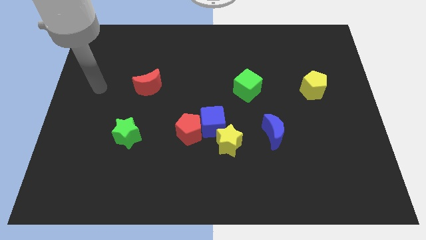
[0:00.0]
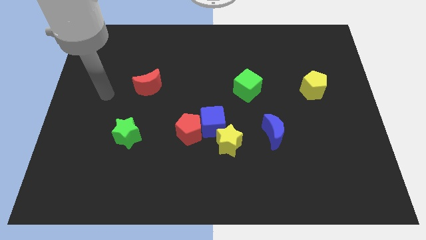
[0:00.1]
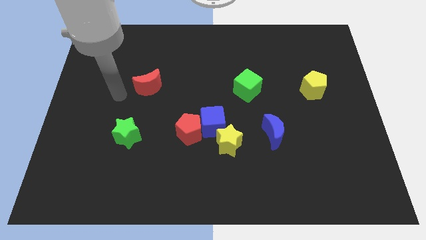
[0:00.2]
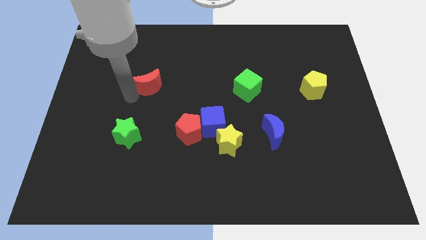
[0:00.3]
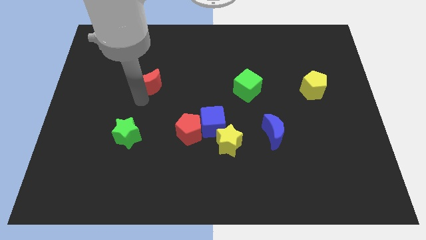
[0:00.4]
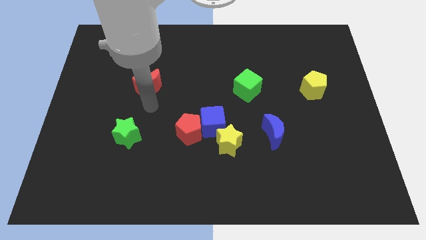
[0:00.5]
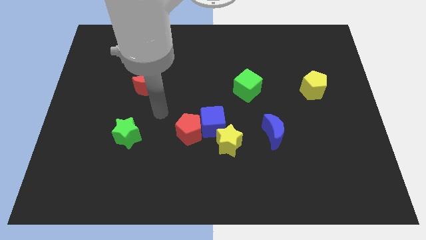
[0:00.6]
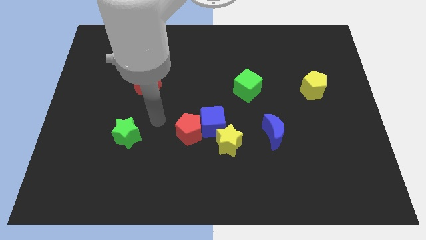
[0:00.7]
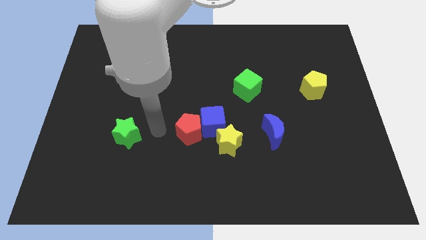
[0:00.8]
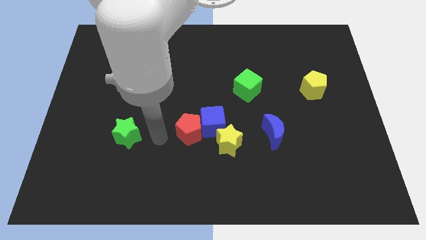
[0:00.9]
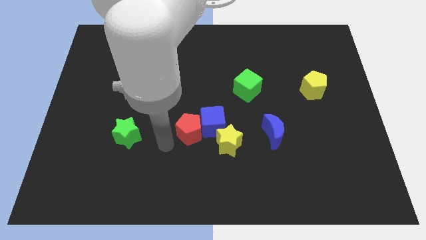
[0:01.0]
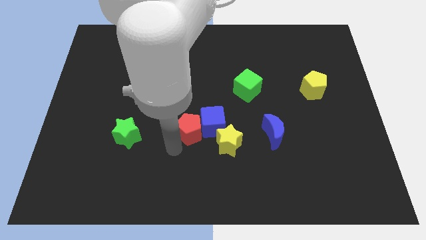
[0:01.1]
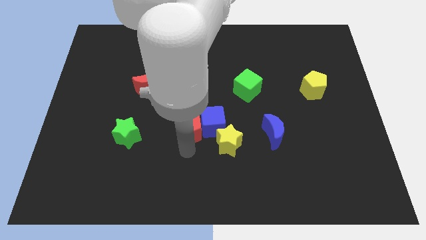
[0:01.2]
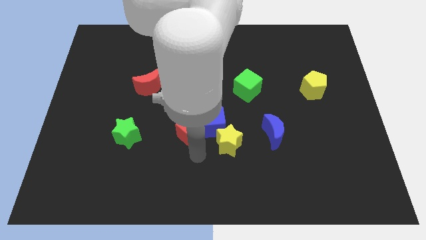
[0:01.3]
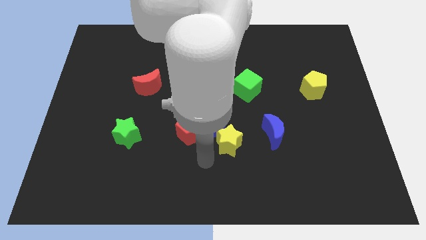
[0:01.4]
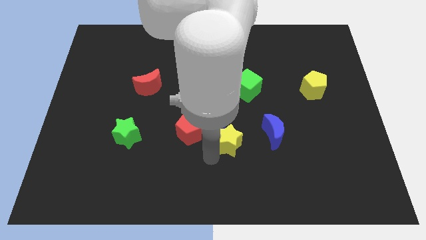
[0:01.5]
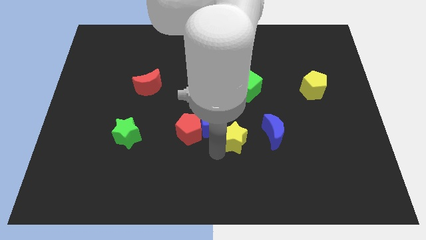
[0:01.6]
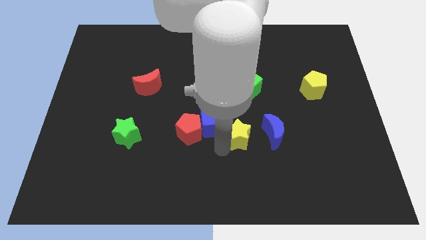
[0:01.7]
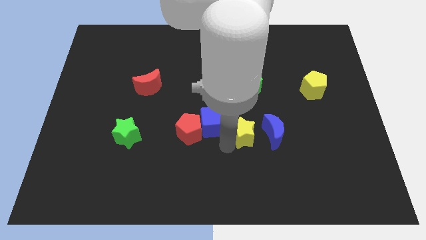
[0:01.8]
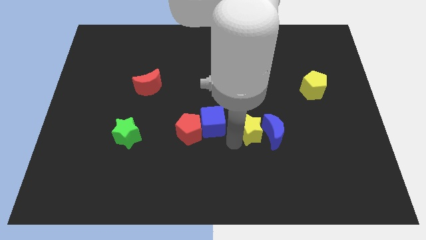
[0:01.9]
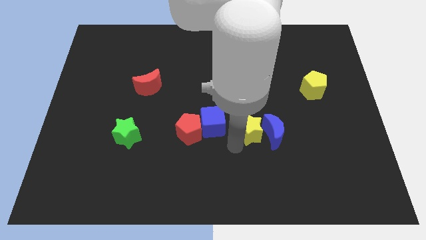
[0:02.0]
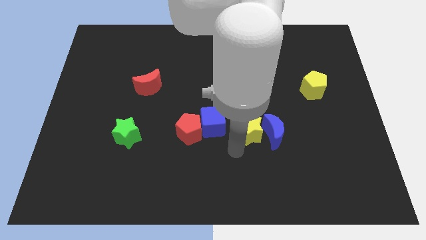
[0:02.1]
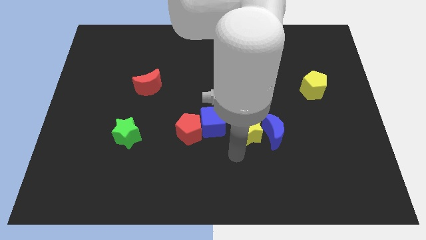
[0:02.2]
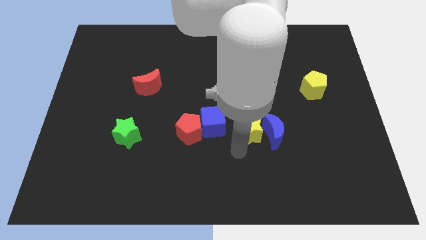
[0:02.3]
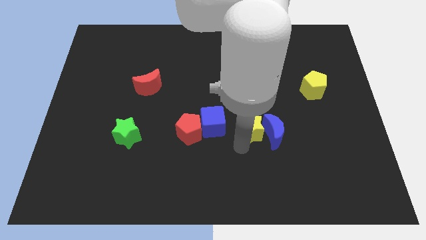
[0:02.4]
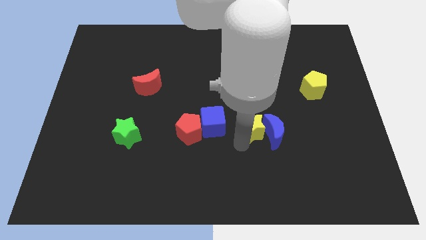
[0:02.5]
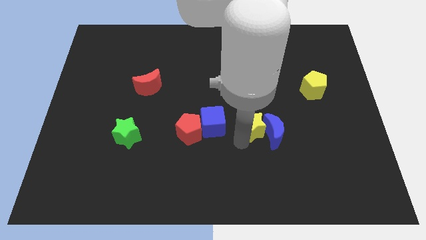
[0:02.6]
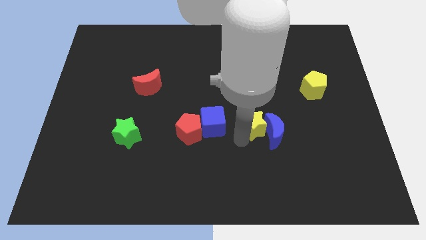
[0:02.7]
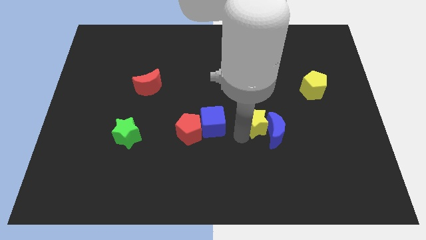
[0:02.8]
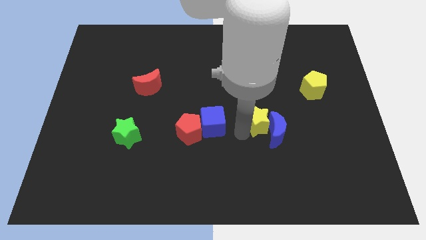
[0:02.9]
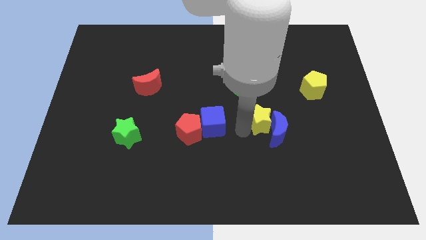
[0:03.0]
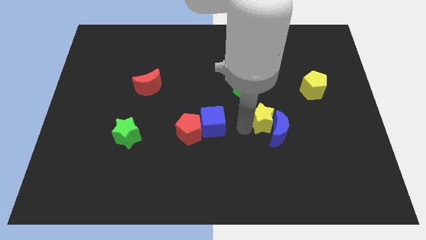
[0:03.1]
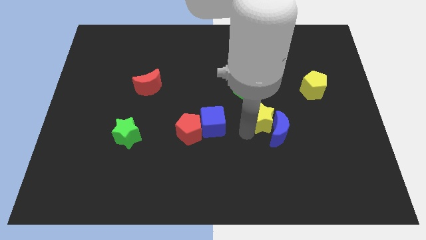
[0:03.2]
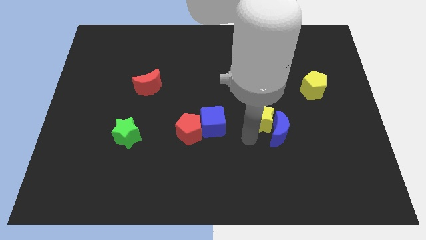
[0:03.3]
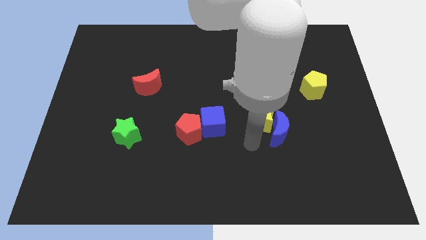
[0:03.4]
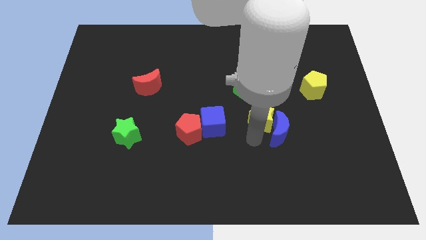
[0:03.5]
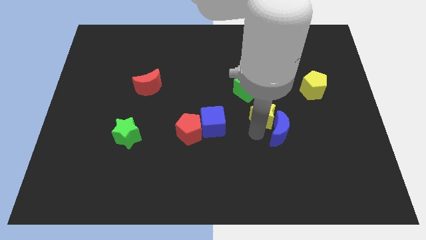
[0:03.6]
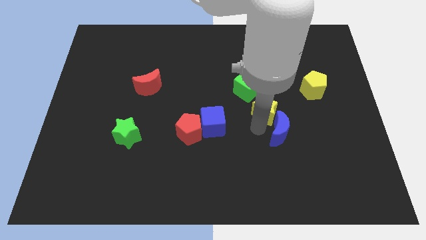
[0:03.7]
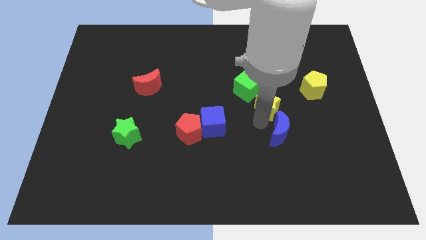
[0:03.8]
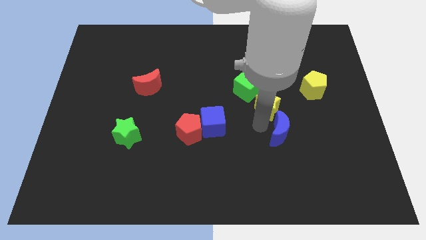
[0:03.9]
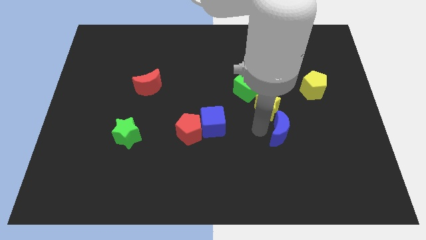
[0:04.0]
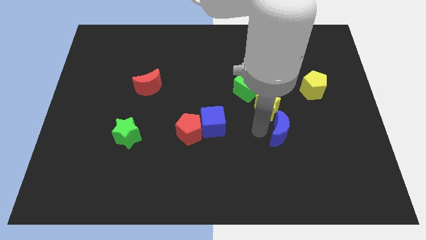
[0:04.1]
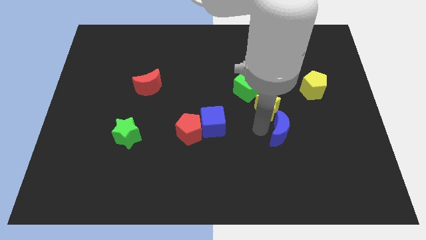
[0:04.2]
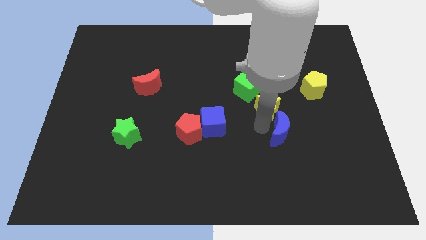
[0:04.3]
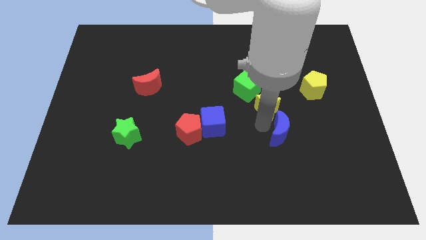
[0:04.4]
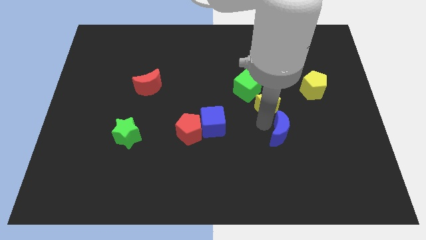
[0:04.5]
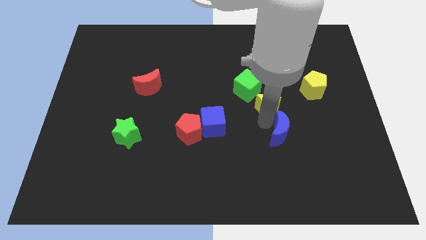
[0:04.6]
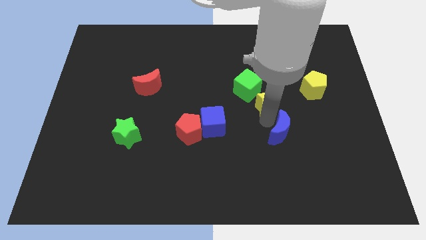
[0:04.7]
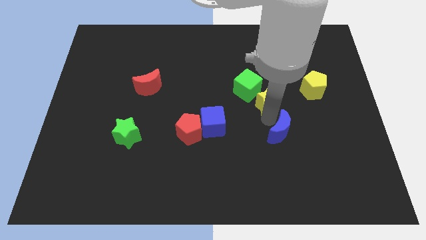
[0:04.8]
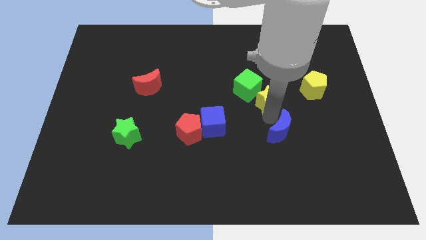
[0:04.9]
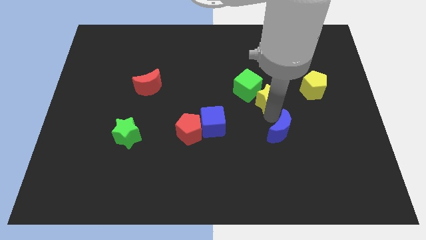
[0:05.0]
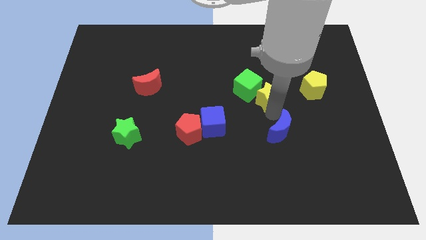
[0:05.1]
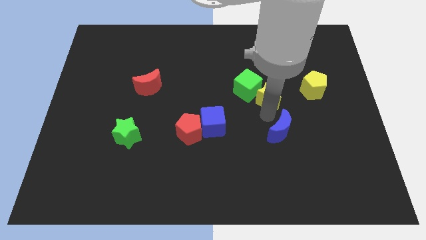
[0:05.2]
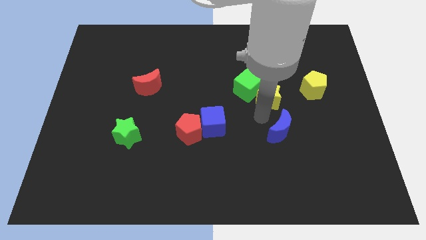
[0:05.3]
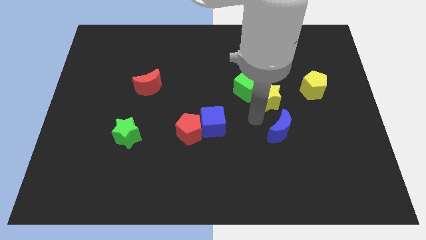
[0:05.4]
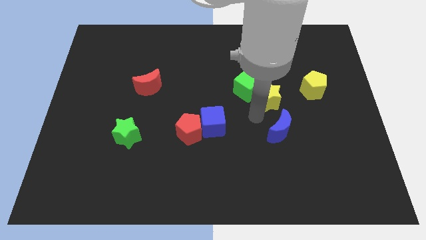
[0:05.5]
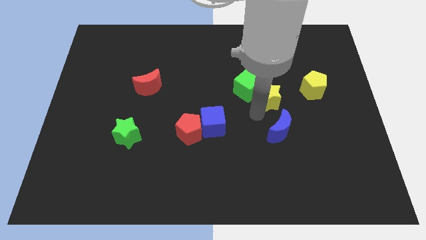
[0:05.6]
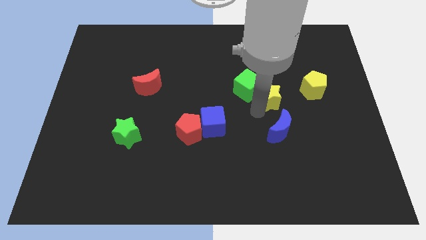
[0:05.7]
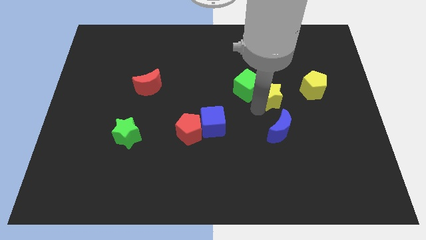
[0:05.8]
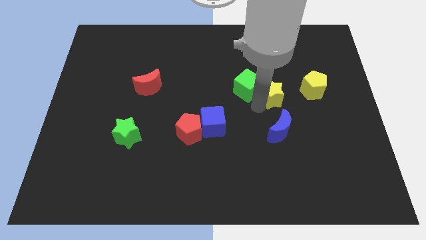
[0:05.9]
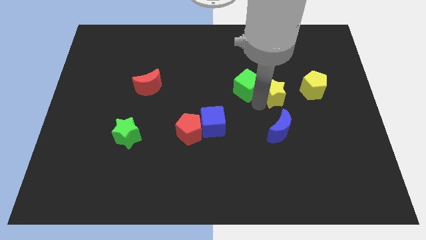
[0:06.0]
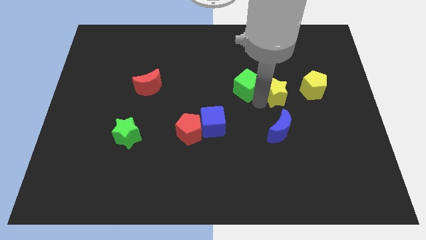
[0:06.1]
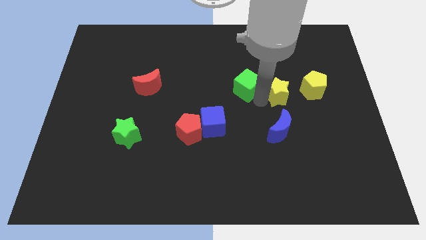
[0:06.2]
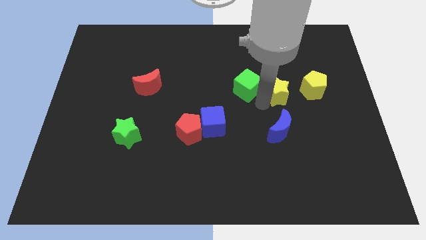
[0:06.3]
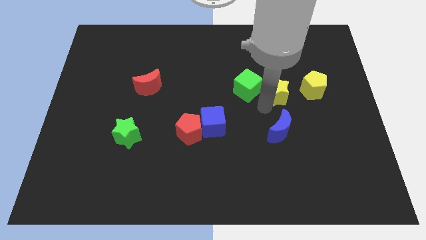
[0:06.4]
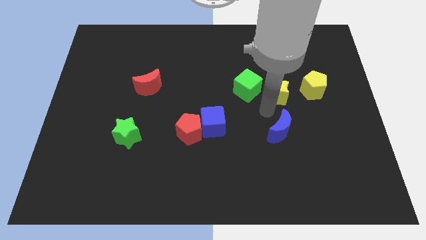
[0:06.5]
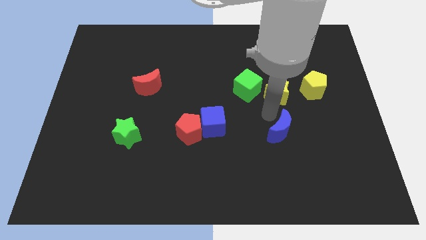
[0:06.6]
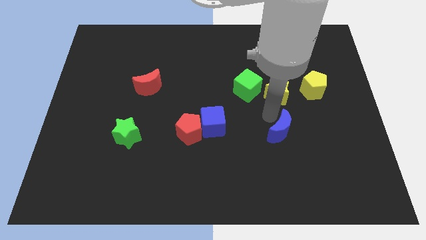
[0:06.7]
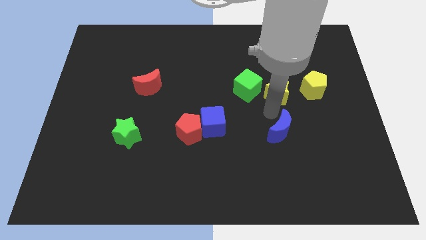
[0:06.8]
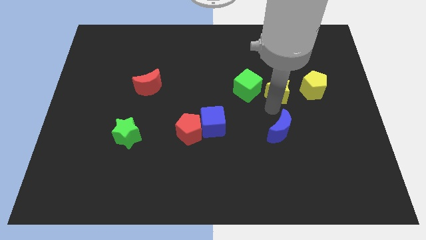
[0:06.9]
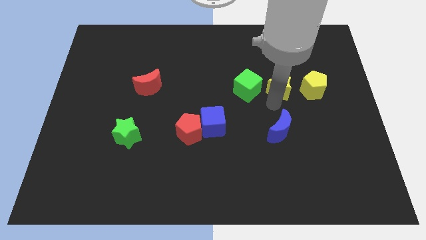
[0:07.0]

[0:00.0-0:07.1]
push the yellow star upwards and right

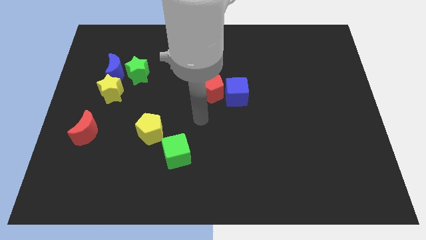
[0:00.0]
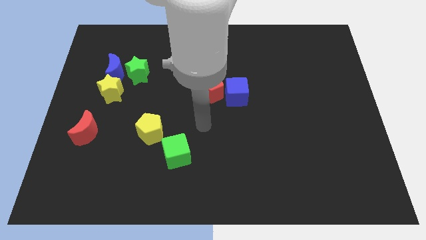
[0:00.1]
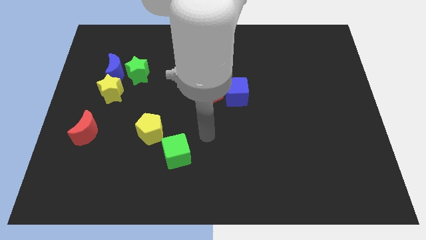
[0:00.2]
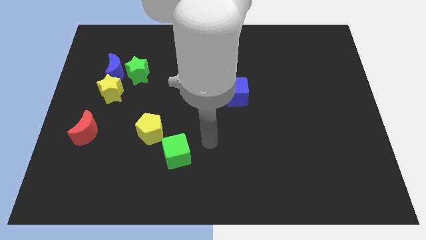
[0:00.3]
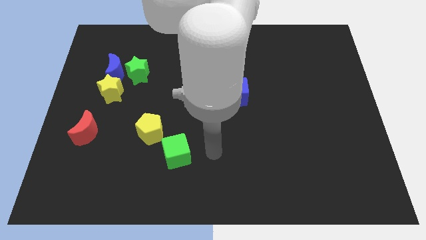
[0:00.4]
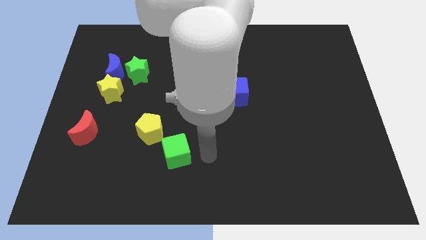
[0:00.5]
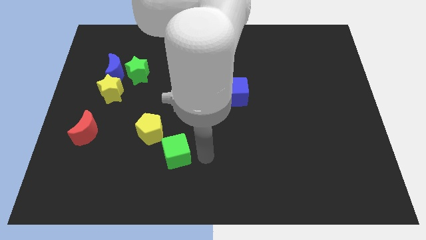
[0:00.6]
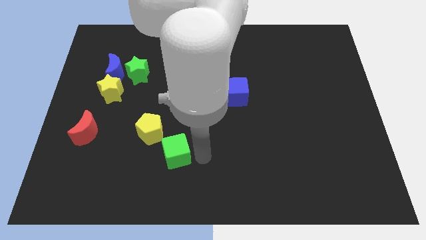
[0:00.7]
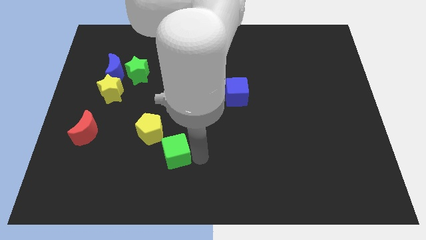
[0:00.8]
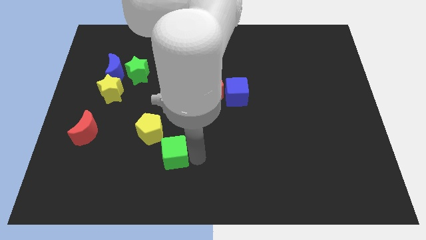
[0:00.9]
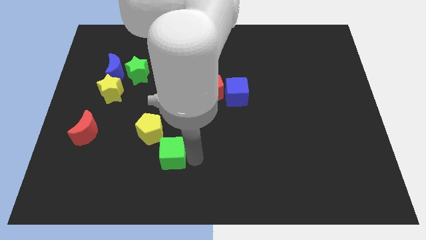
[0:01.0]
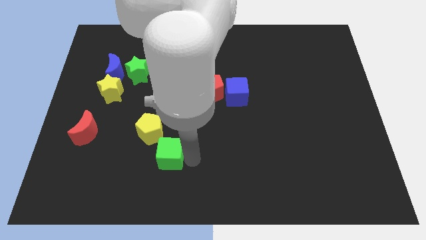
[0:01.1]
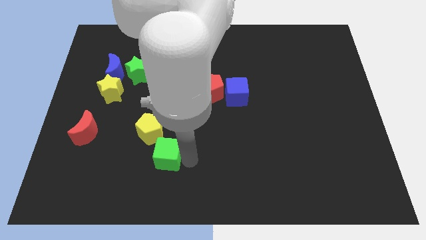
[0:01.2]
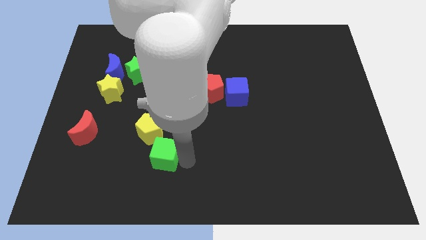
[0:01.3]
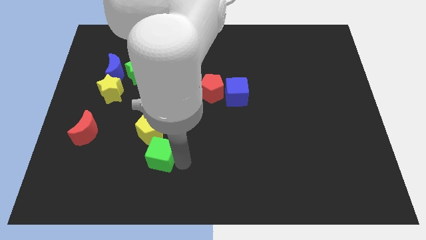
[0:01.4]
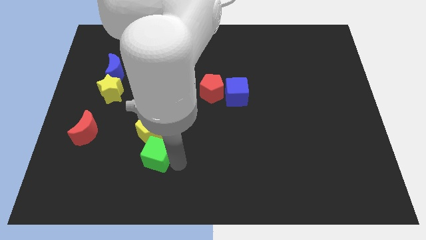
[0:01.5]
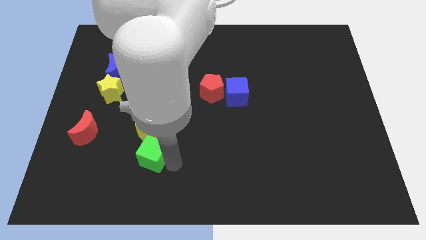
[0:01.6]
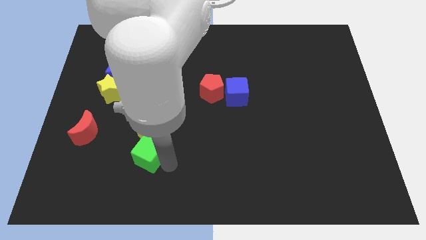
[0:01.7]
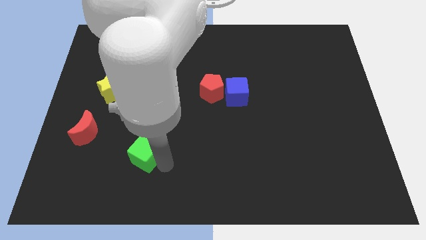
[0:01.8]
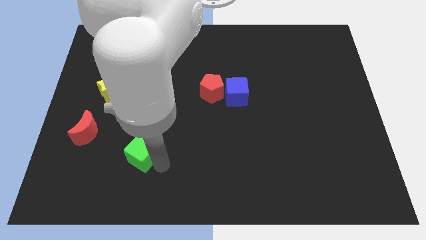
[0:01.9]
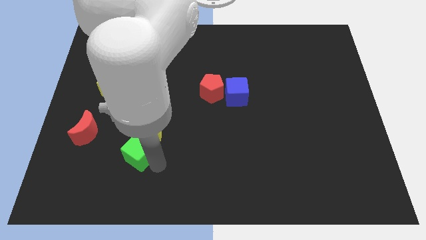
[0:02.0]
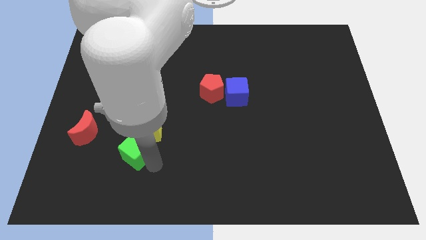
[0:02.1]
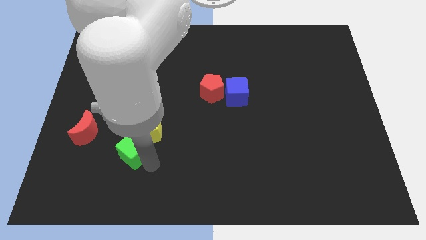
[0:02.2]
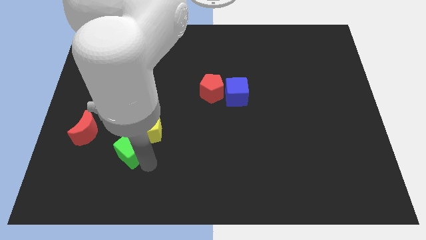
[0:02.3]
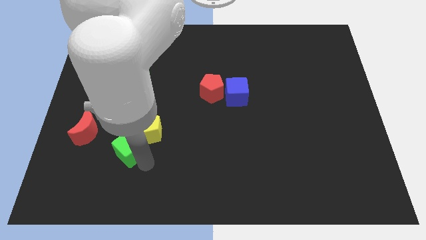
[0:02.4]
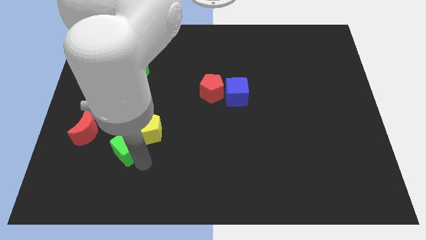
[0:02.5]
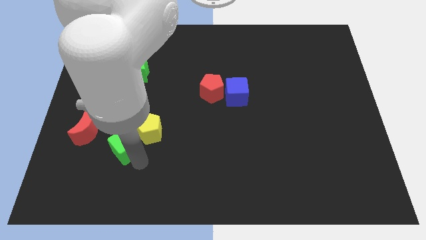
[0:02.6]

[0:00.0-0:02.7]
slide the green cube a bit up and left
